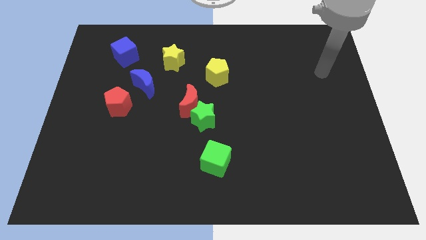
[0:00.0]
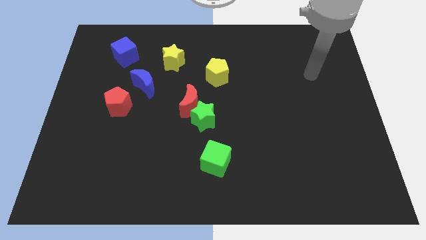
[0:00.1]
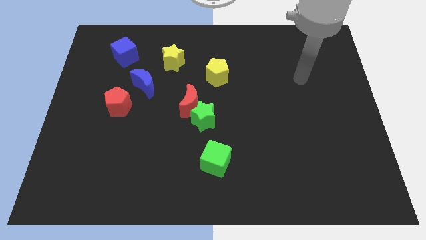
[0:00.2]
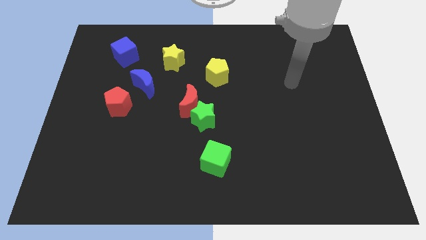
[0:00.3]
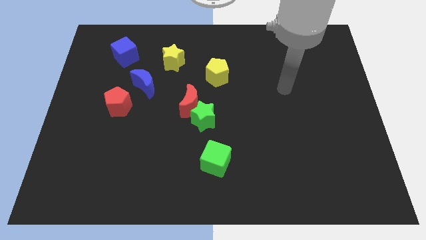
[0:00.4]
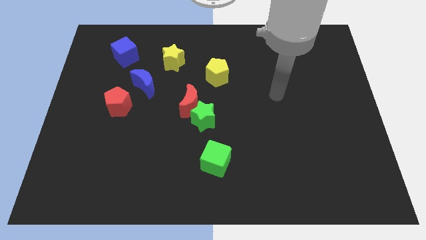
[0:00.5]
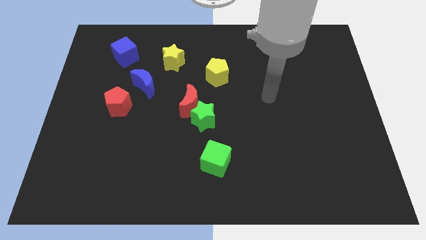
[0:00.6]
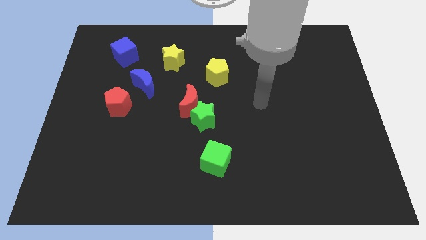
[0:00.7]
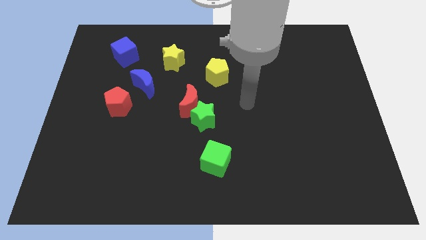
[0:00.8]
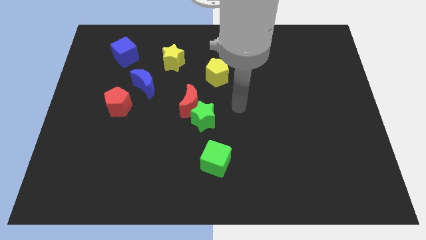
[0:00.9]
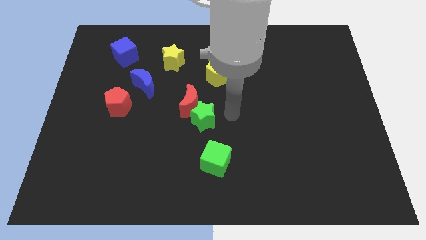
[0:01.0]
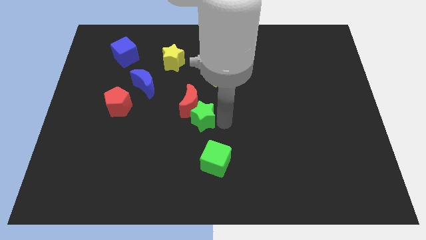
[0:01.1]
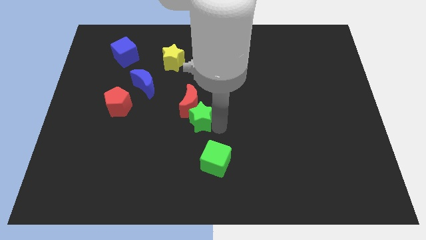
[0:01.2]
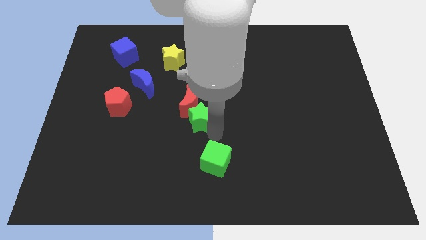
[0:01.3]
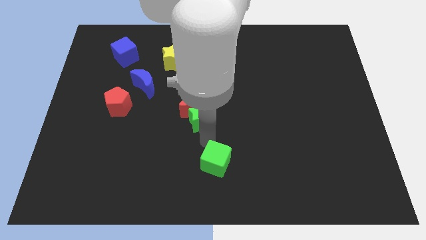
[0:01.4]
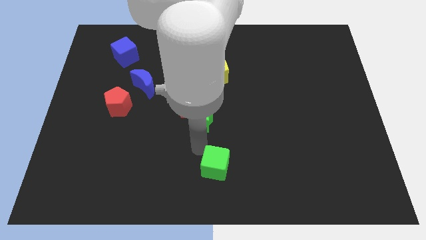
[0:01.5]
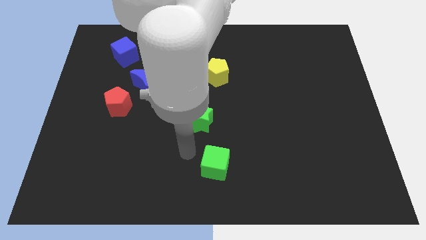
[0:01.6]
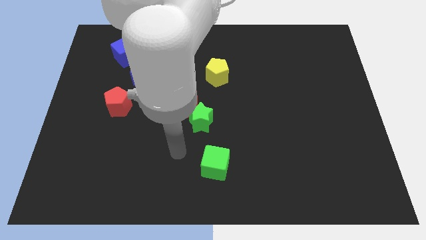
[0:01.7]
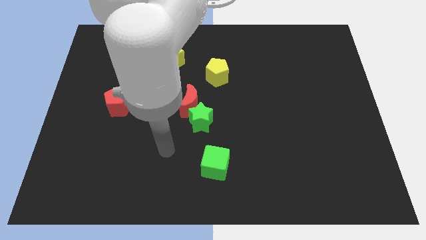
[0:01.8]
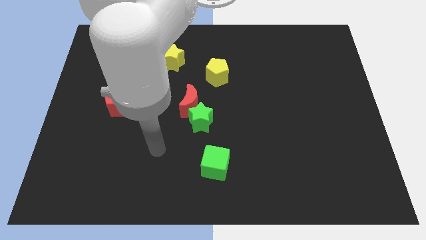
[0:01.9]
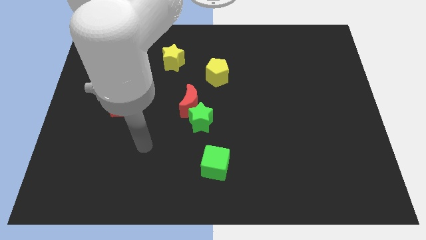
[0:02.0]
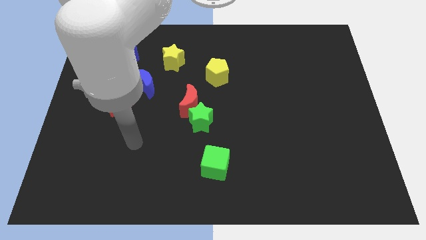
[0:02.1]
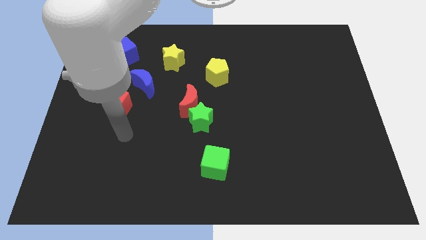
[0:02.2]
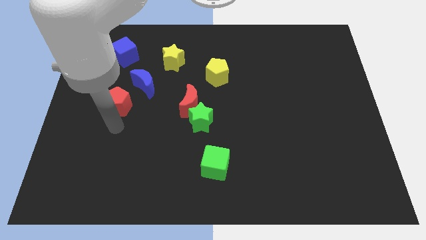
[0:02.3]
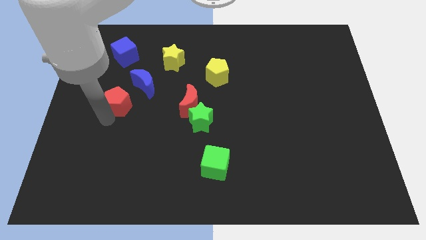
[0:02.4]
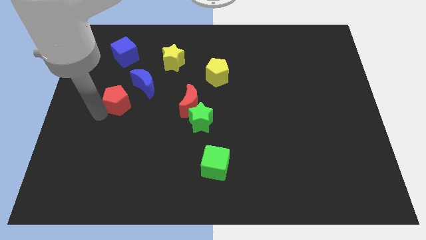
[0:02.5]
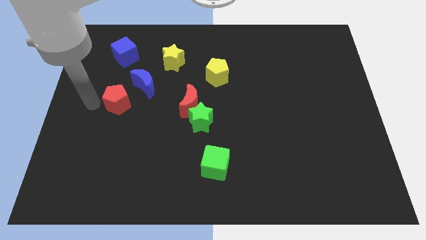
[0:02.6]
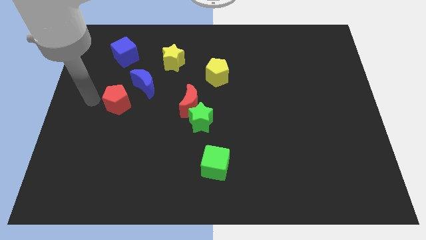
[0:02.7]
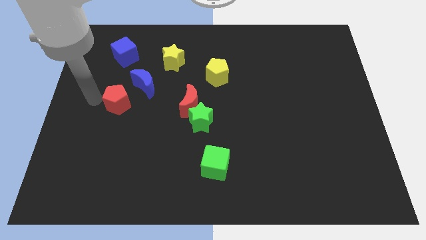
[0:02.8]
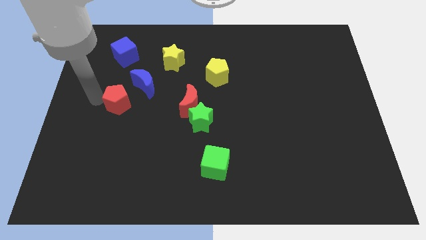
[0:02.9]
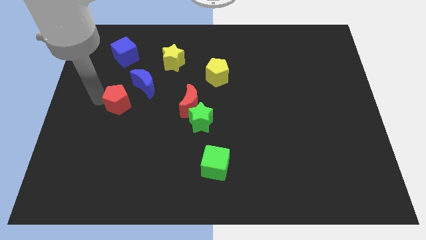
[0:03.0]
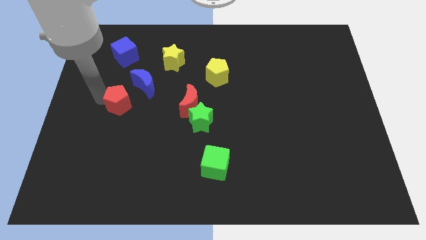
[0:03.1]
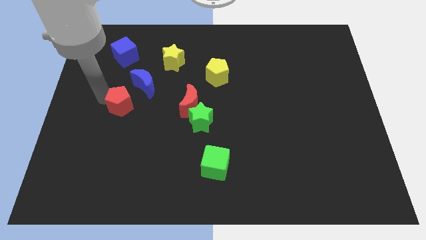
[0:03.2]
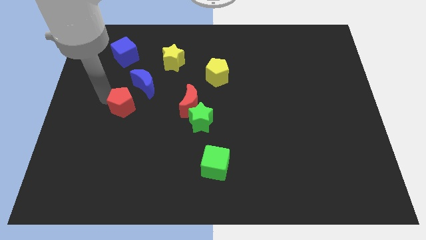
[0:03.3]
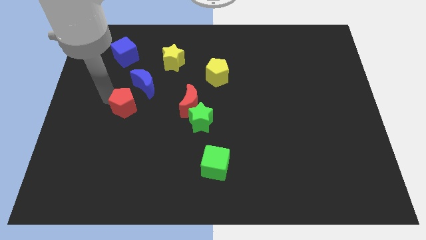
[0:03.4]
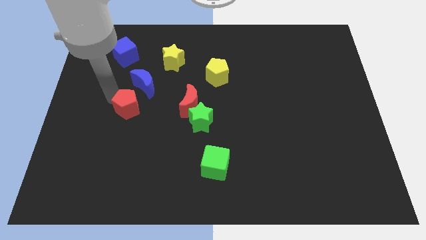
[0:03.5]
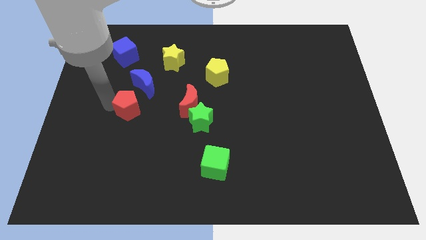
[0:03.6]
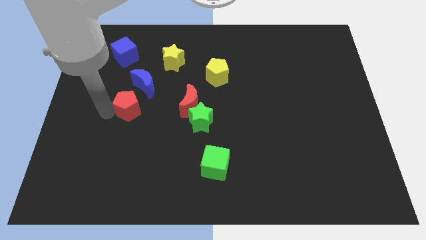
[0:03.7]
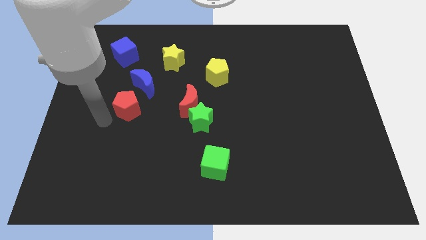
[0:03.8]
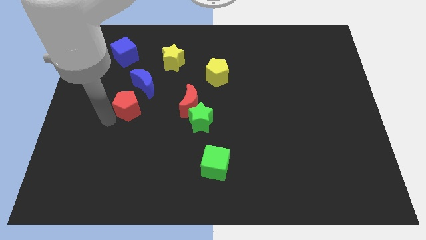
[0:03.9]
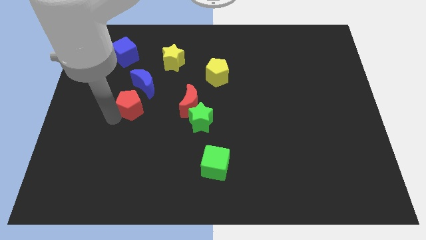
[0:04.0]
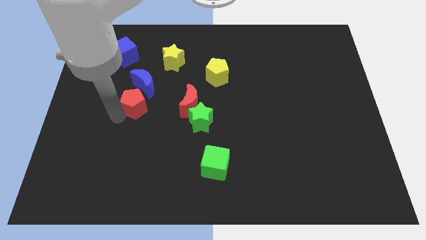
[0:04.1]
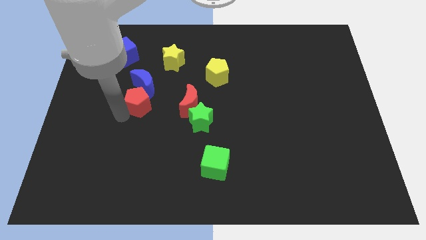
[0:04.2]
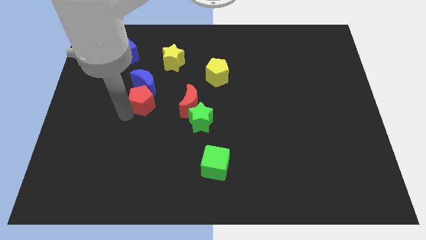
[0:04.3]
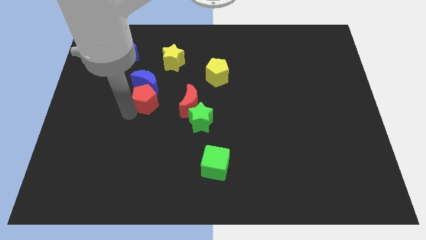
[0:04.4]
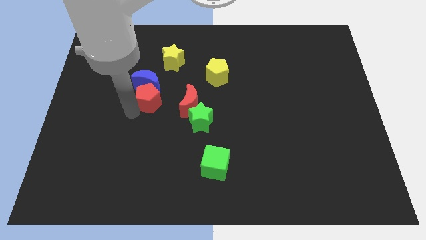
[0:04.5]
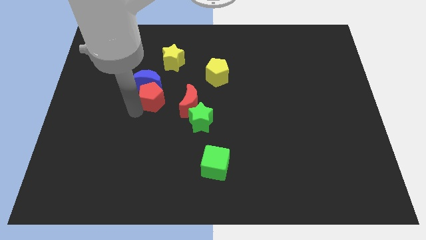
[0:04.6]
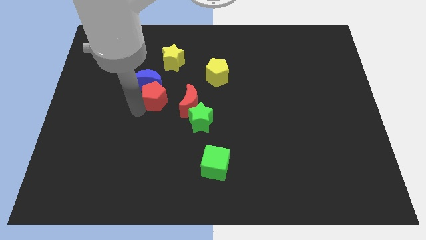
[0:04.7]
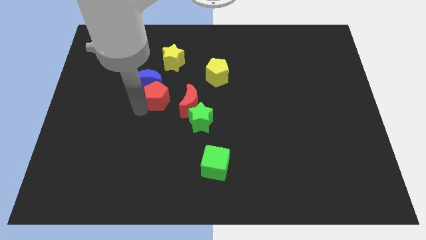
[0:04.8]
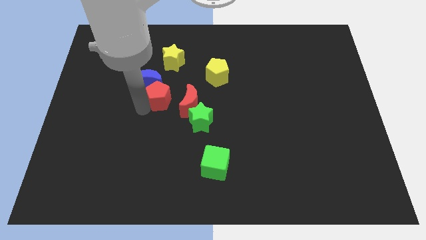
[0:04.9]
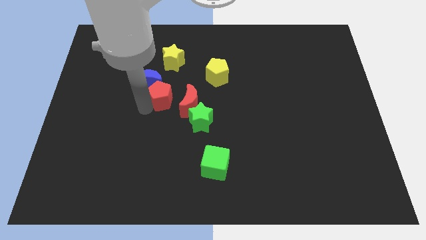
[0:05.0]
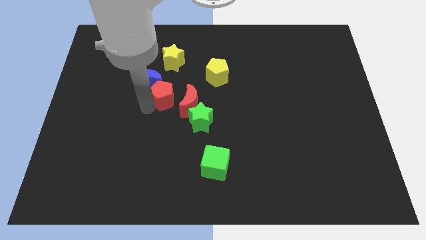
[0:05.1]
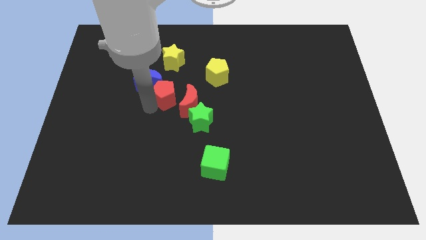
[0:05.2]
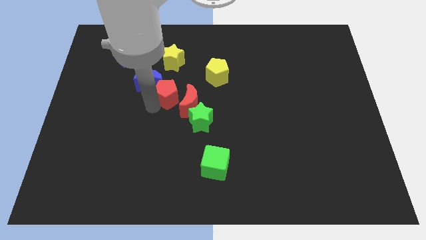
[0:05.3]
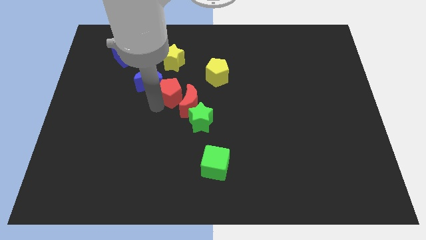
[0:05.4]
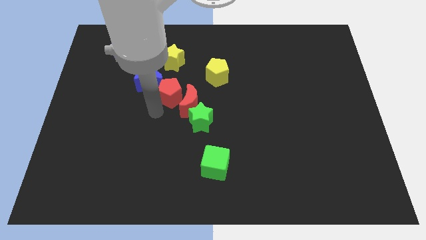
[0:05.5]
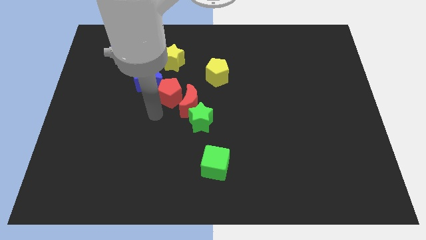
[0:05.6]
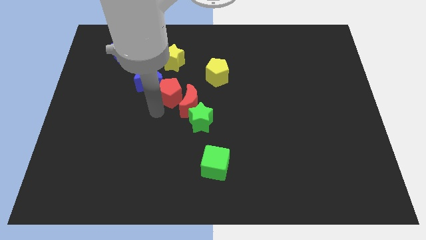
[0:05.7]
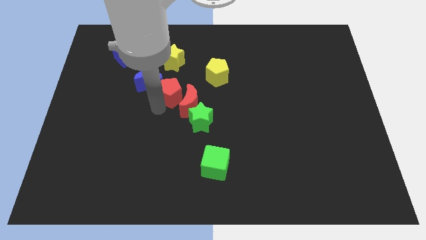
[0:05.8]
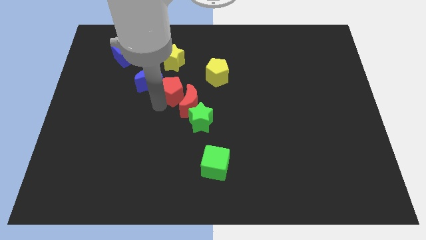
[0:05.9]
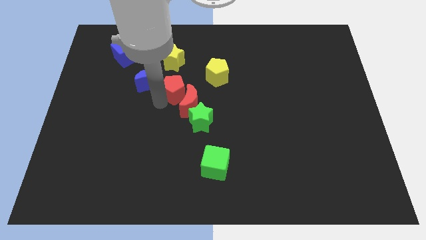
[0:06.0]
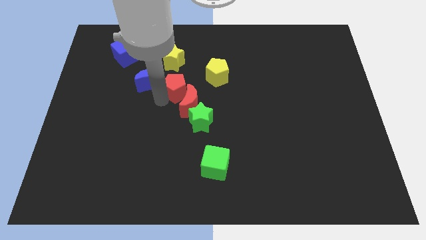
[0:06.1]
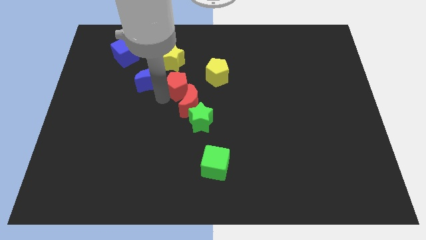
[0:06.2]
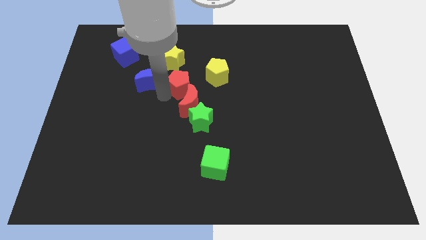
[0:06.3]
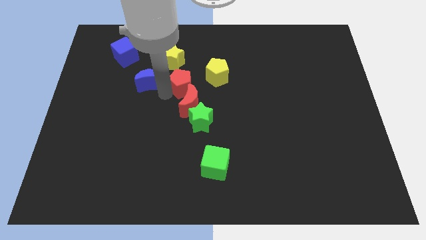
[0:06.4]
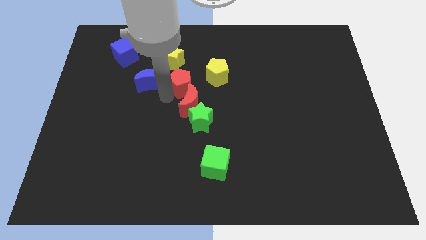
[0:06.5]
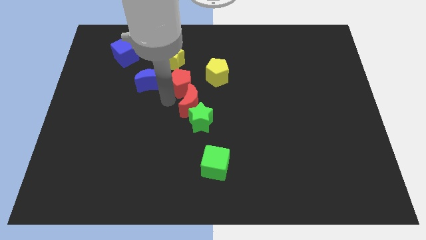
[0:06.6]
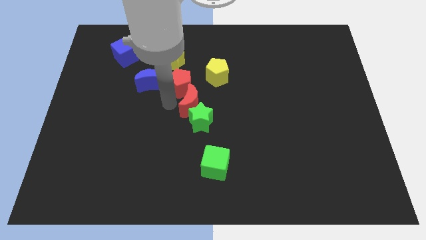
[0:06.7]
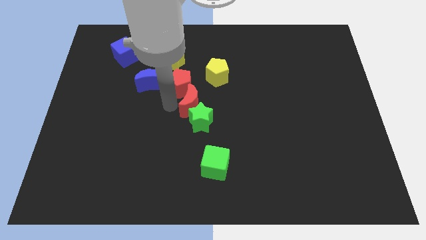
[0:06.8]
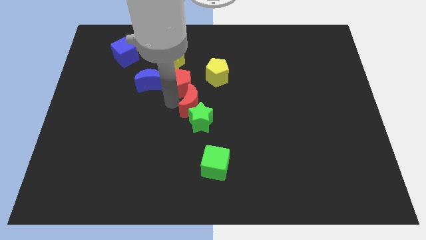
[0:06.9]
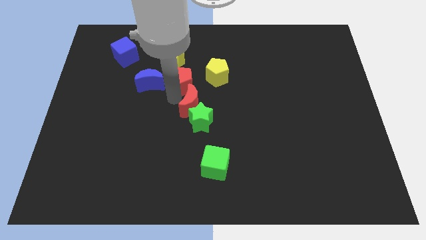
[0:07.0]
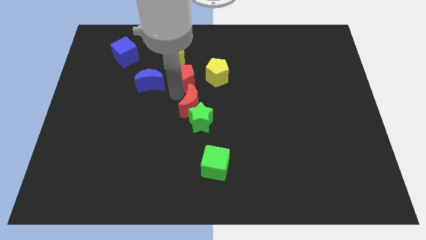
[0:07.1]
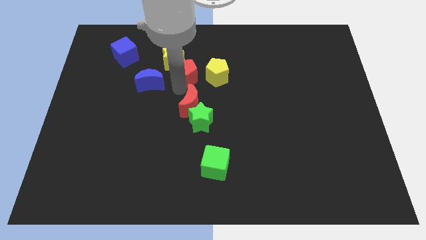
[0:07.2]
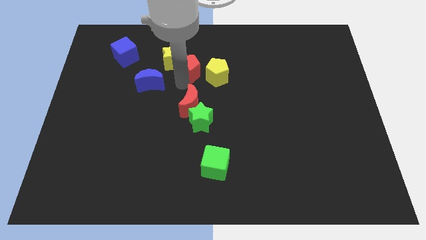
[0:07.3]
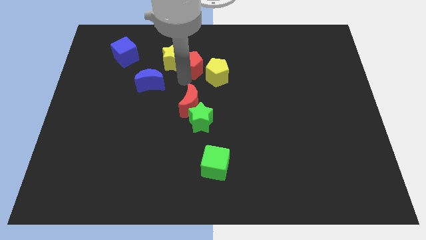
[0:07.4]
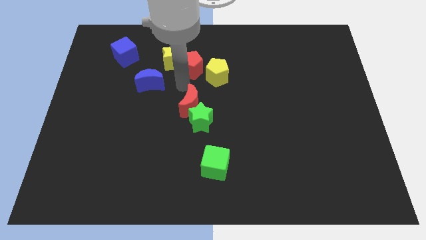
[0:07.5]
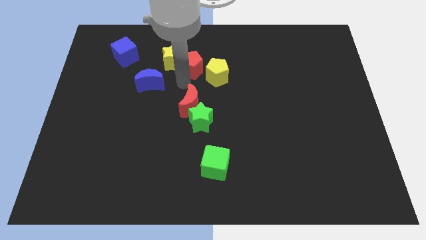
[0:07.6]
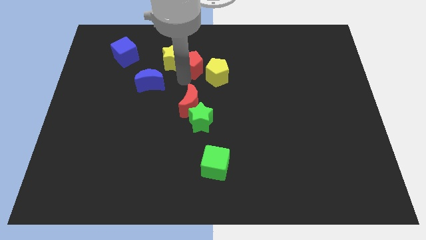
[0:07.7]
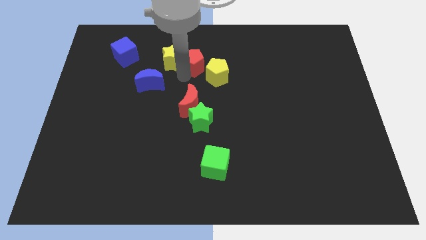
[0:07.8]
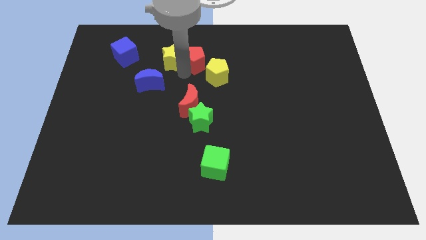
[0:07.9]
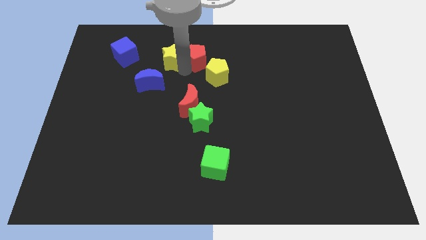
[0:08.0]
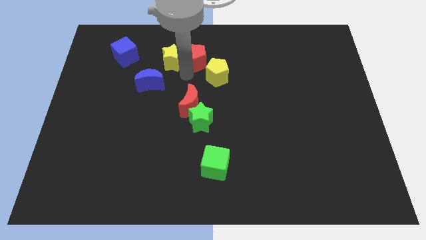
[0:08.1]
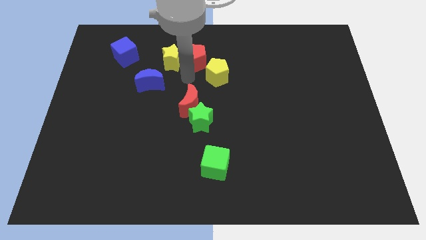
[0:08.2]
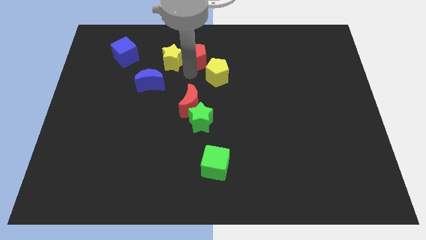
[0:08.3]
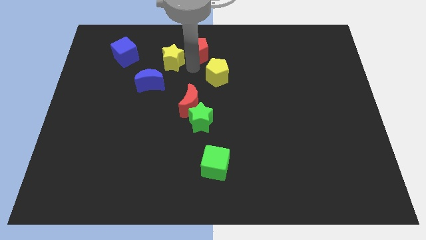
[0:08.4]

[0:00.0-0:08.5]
move the red pentagon to the towards your base
